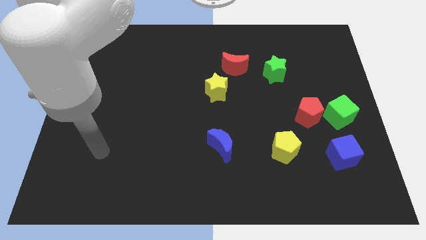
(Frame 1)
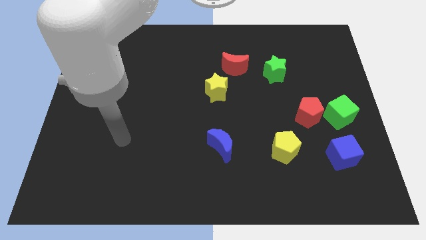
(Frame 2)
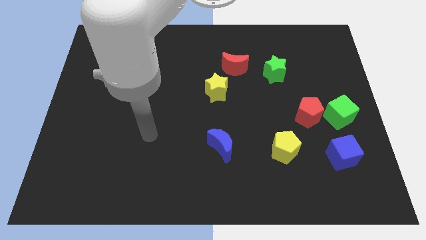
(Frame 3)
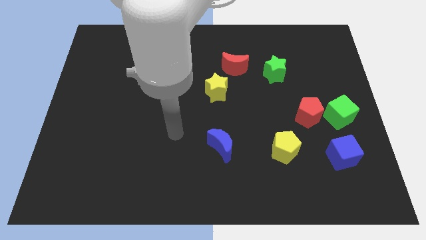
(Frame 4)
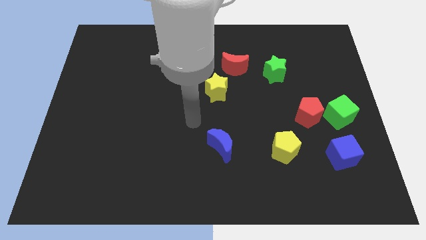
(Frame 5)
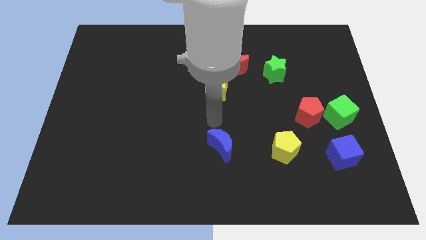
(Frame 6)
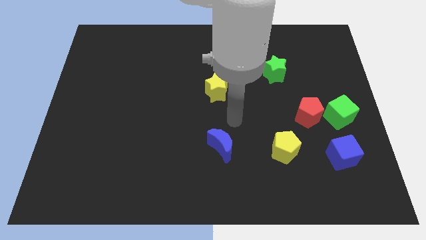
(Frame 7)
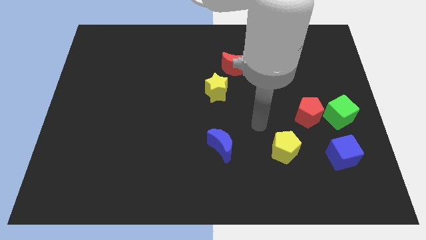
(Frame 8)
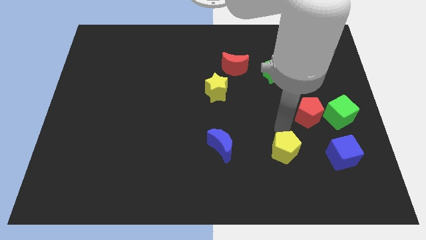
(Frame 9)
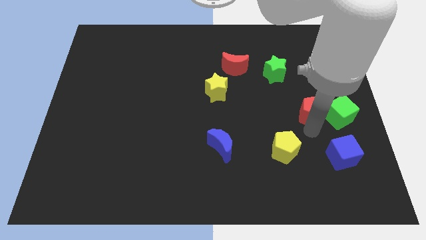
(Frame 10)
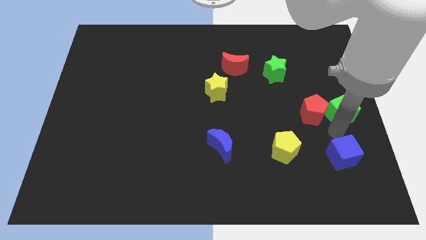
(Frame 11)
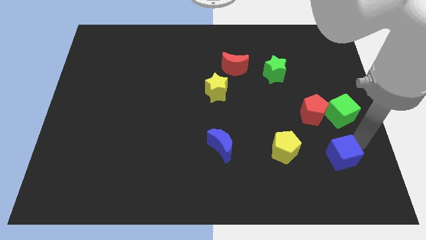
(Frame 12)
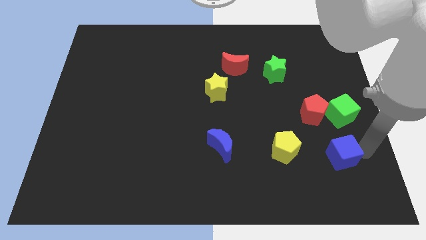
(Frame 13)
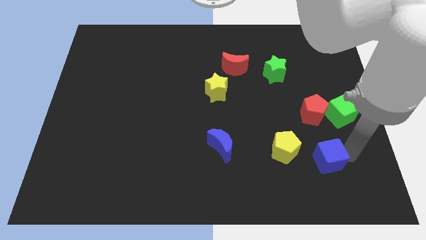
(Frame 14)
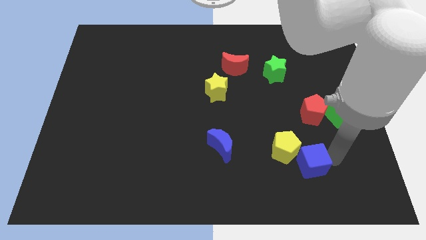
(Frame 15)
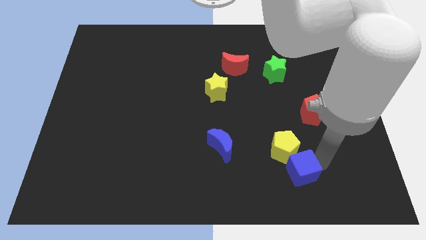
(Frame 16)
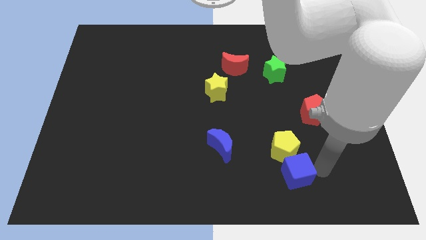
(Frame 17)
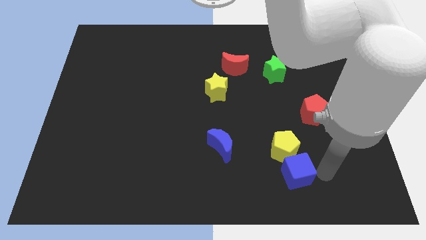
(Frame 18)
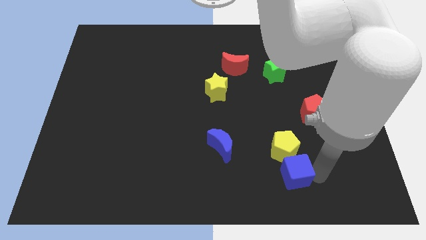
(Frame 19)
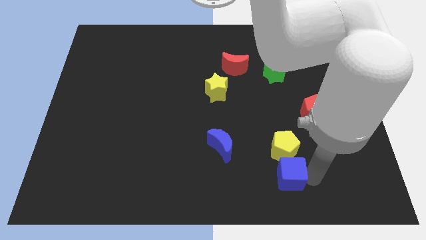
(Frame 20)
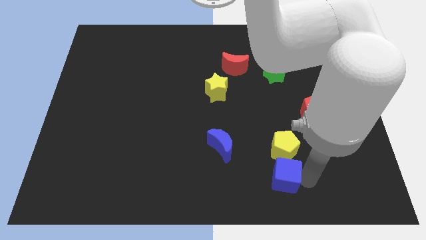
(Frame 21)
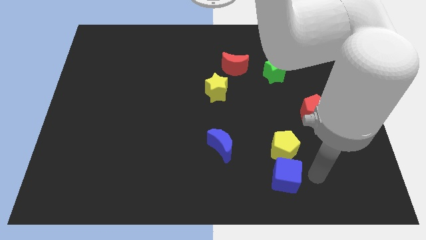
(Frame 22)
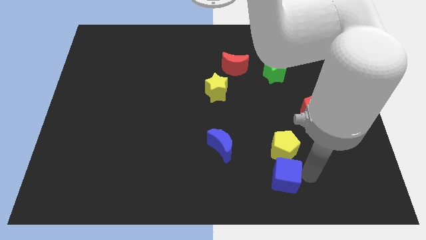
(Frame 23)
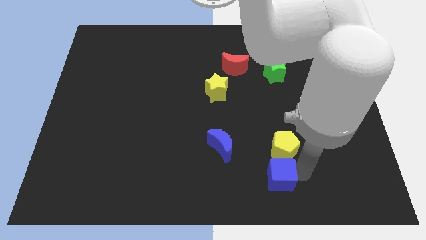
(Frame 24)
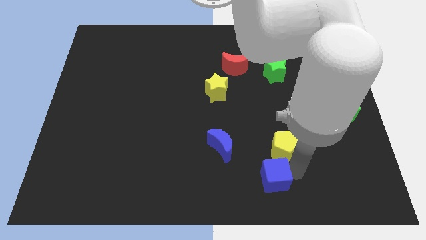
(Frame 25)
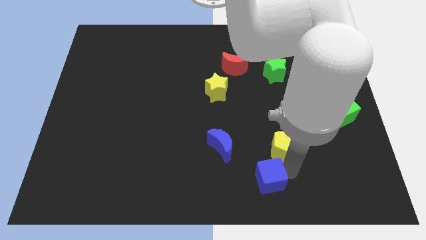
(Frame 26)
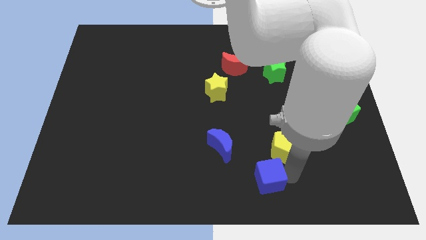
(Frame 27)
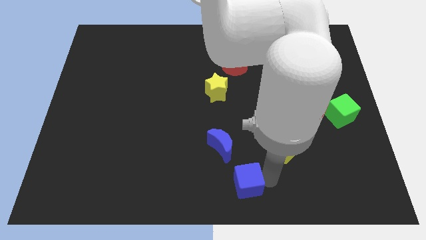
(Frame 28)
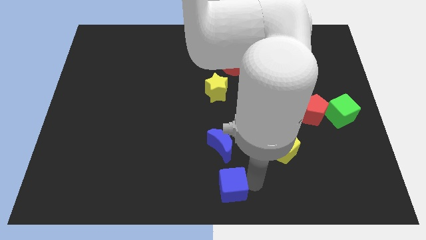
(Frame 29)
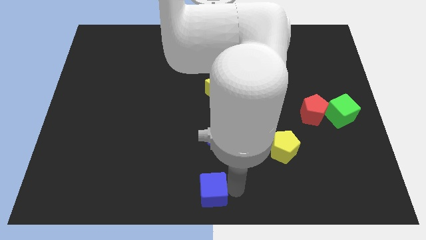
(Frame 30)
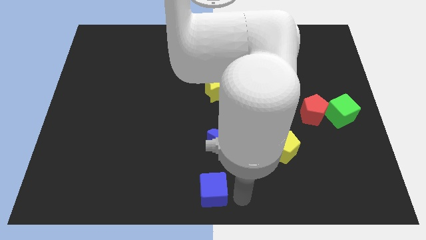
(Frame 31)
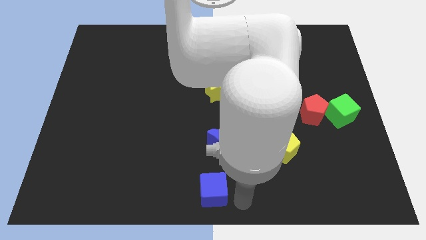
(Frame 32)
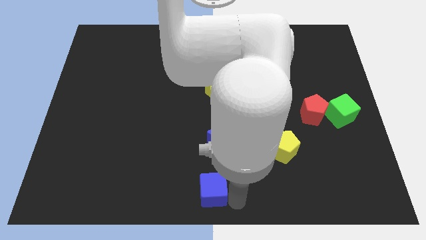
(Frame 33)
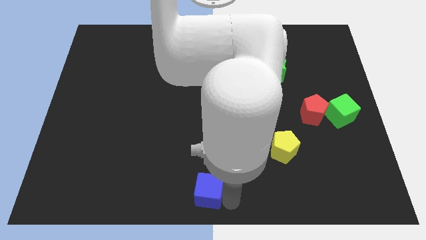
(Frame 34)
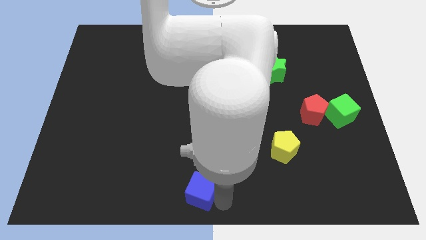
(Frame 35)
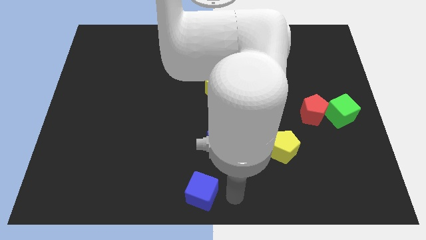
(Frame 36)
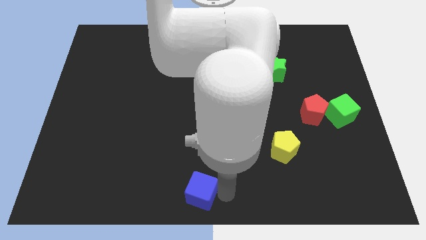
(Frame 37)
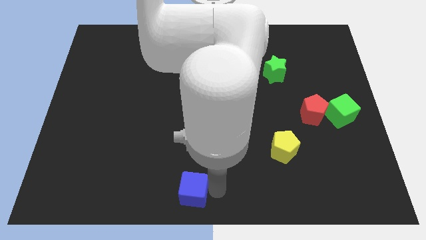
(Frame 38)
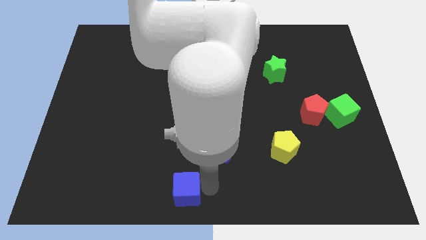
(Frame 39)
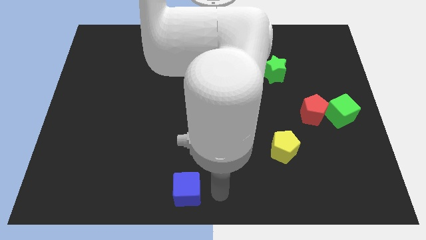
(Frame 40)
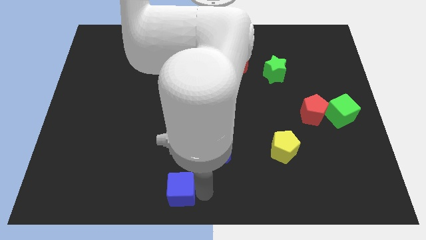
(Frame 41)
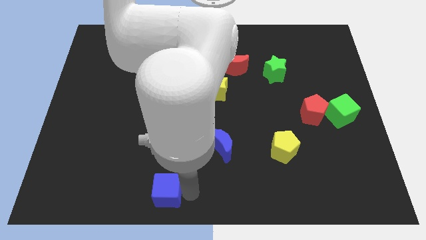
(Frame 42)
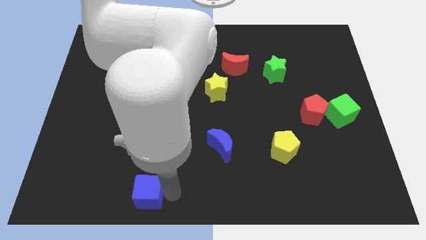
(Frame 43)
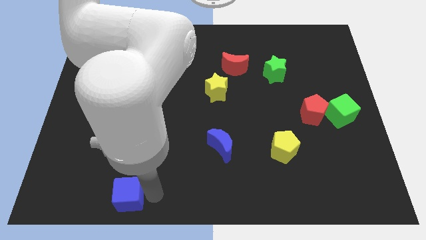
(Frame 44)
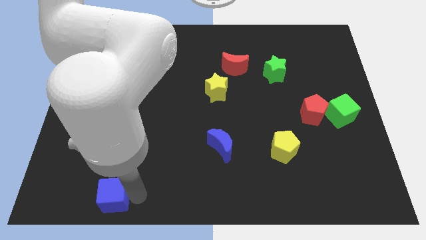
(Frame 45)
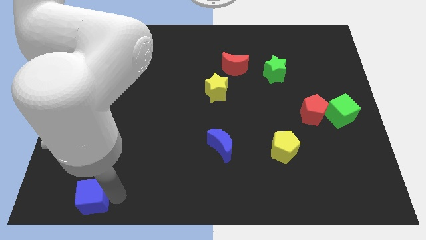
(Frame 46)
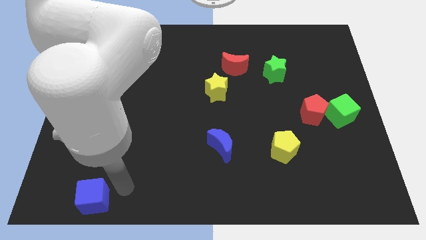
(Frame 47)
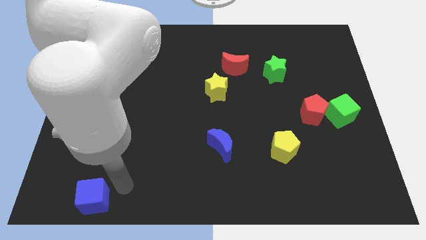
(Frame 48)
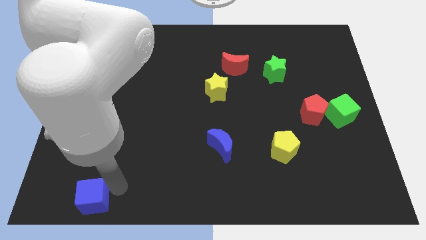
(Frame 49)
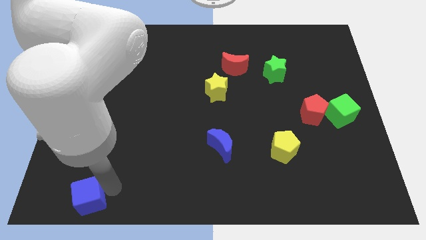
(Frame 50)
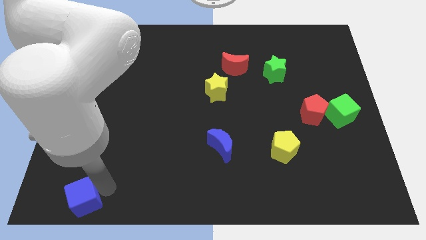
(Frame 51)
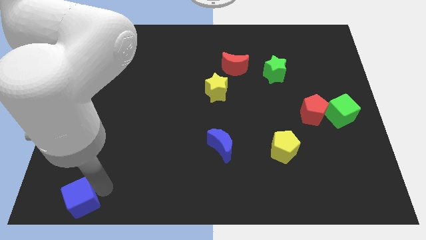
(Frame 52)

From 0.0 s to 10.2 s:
put the blue cube to the bottom left corner

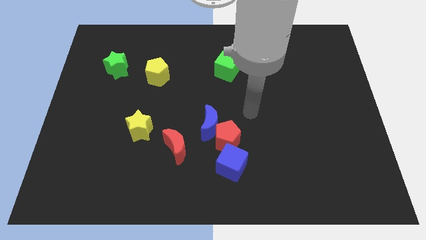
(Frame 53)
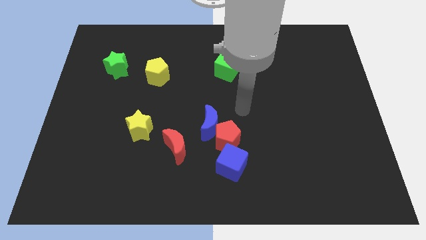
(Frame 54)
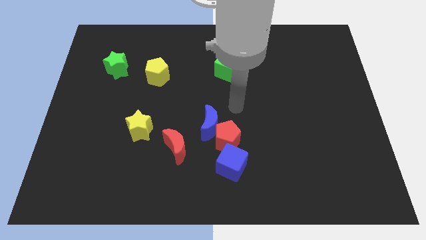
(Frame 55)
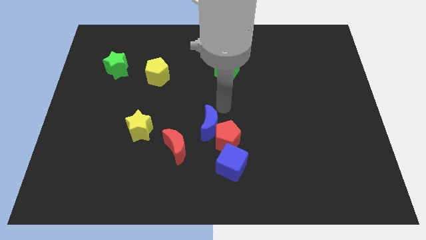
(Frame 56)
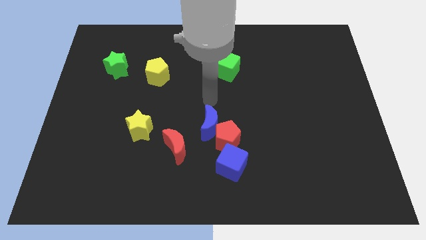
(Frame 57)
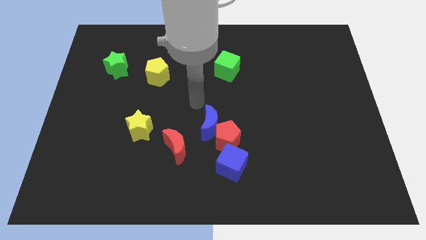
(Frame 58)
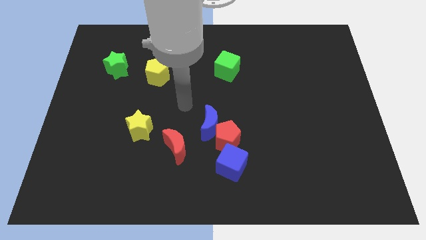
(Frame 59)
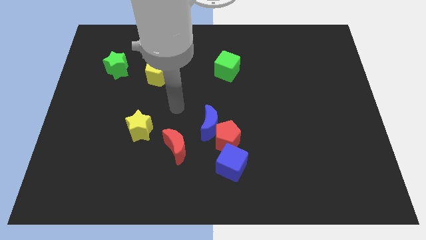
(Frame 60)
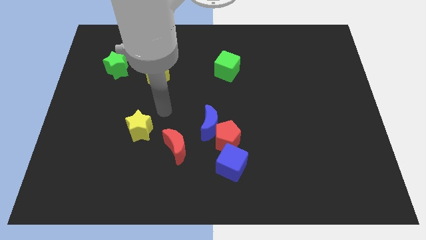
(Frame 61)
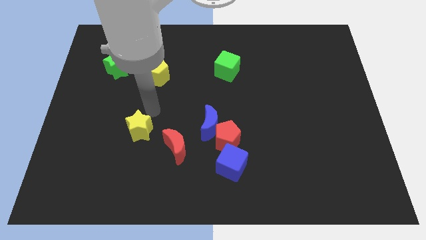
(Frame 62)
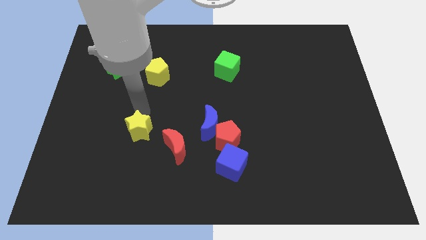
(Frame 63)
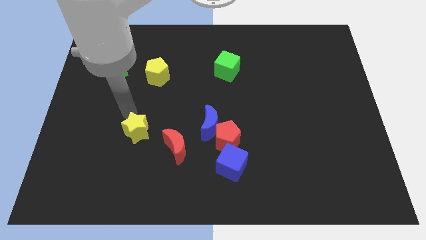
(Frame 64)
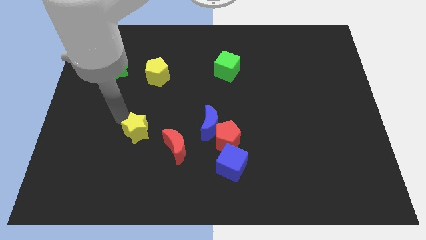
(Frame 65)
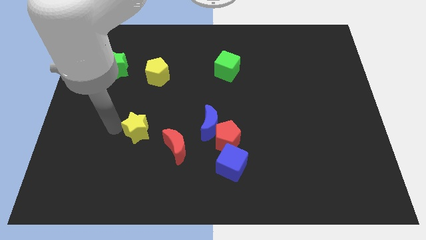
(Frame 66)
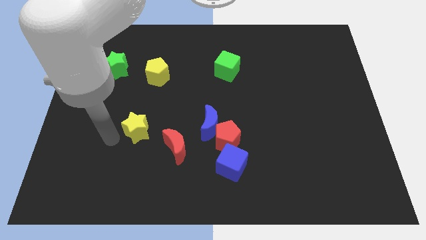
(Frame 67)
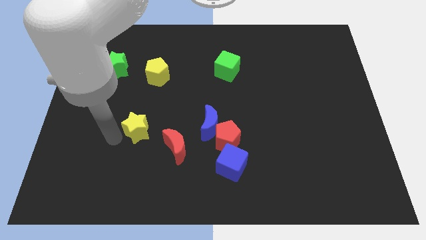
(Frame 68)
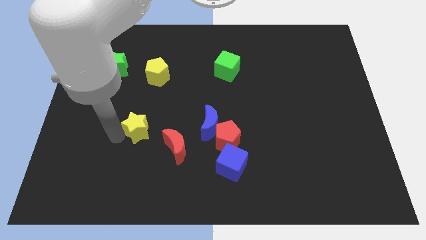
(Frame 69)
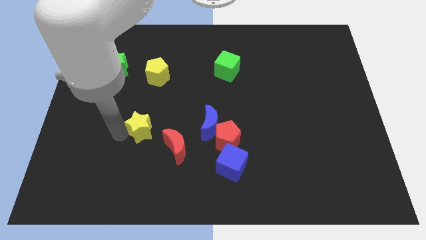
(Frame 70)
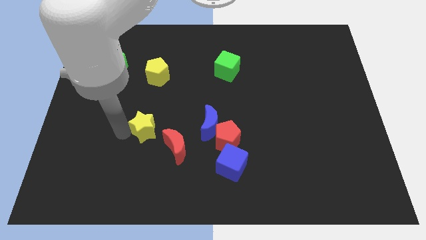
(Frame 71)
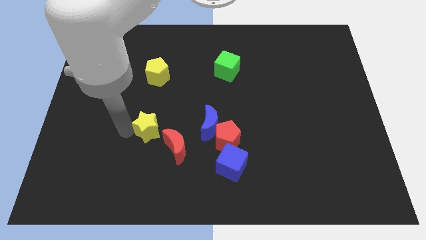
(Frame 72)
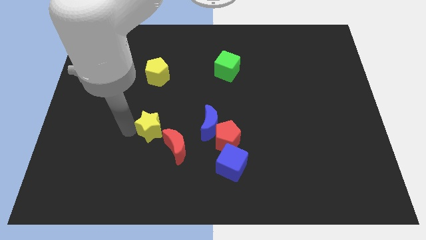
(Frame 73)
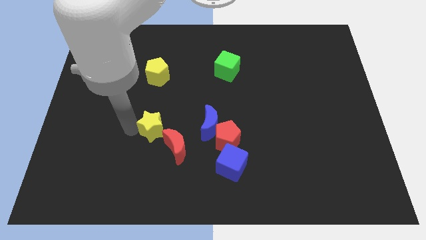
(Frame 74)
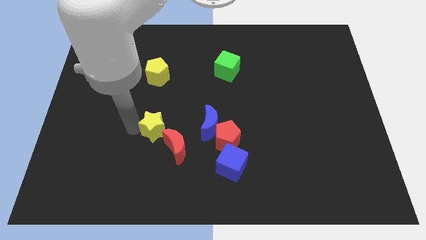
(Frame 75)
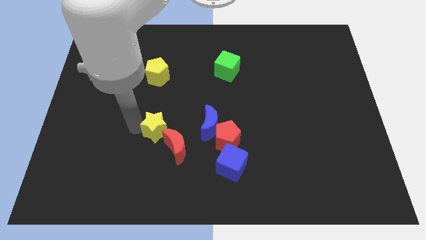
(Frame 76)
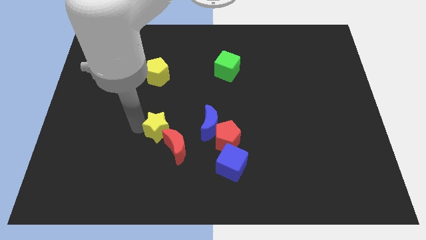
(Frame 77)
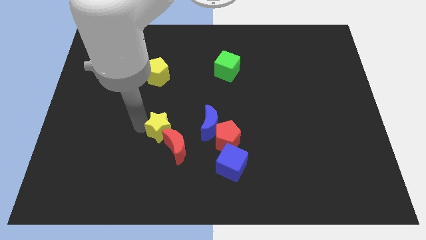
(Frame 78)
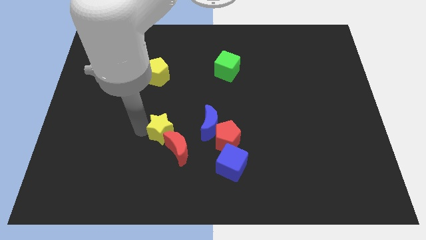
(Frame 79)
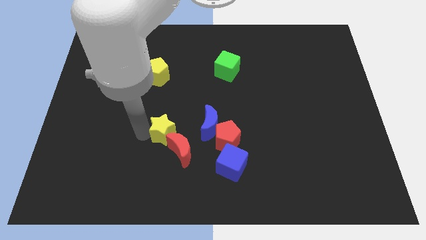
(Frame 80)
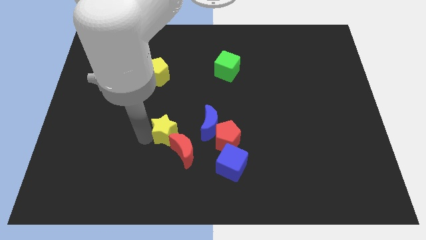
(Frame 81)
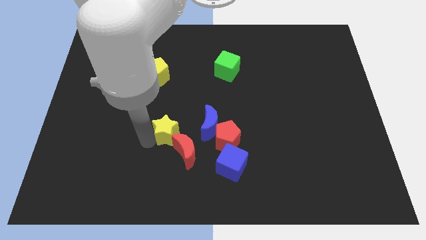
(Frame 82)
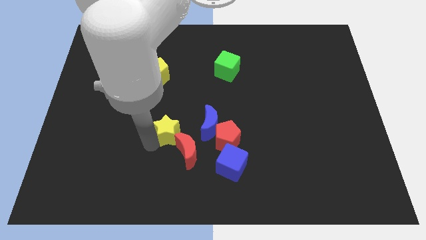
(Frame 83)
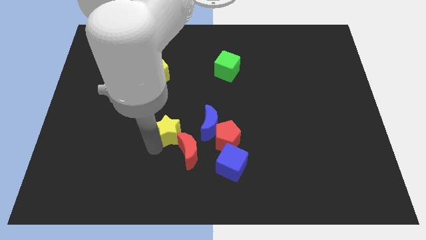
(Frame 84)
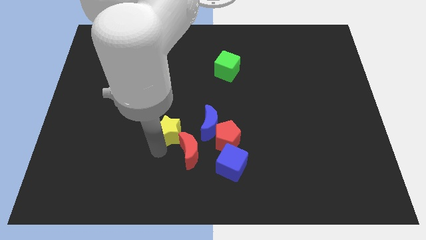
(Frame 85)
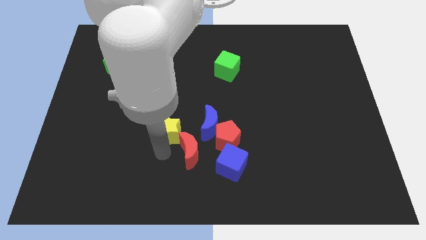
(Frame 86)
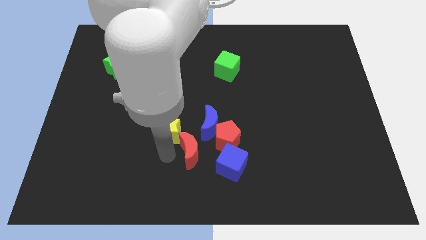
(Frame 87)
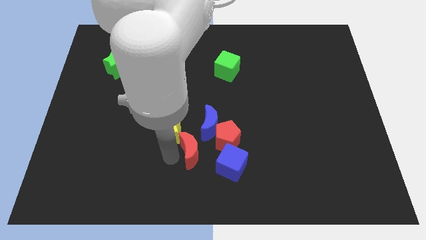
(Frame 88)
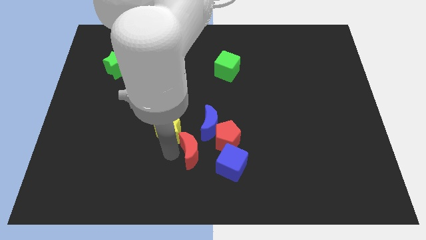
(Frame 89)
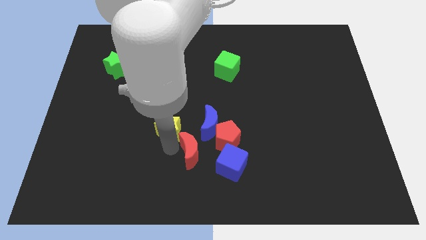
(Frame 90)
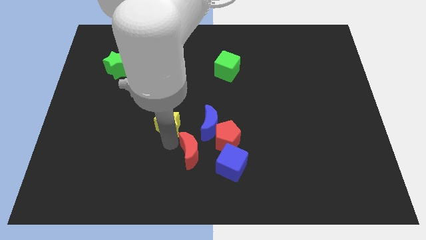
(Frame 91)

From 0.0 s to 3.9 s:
move the yellow star to the middle of the board
